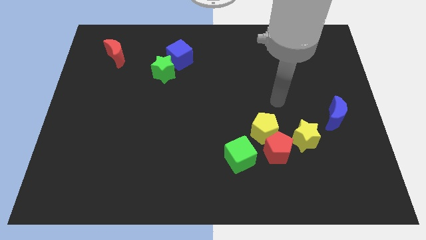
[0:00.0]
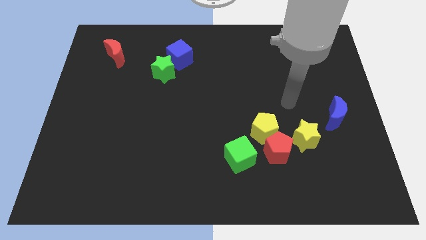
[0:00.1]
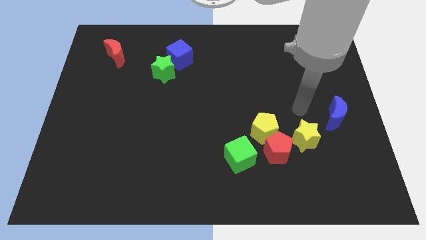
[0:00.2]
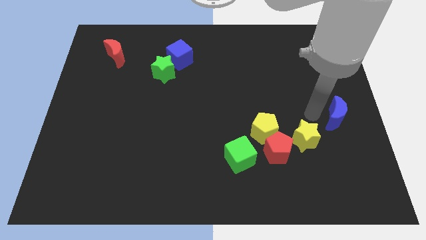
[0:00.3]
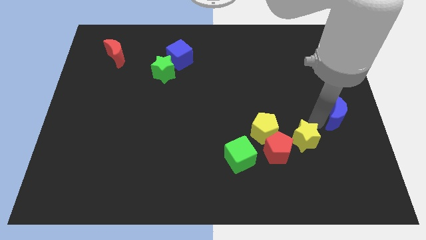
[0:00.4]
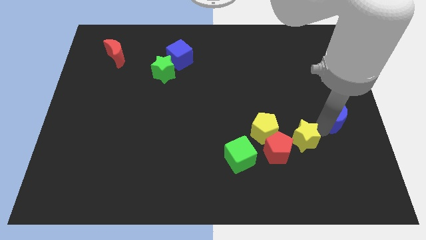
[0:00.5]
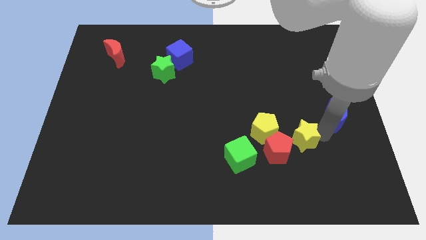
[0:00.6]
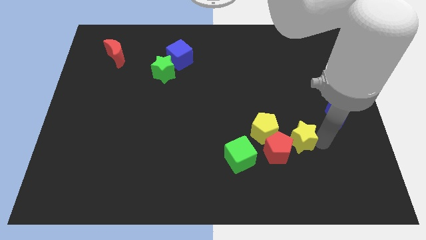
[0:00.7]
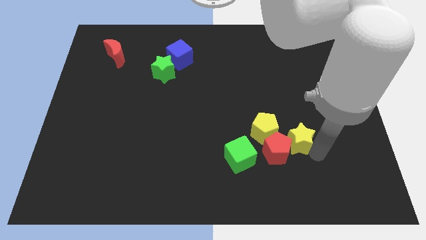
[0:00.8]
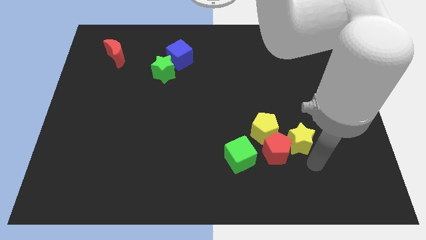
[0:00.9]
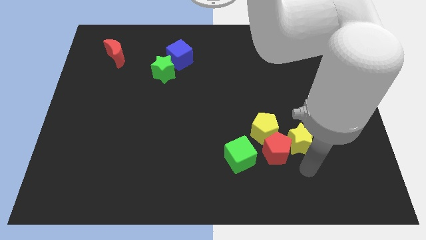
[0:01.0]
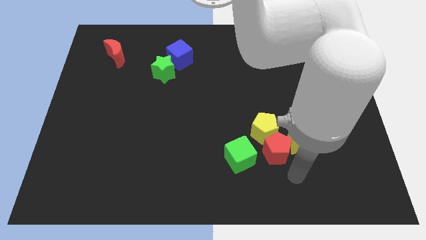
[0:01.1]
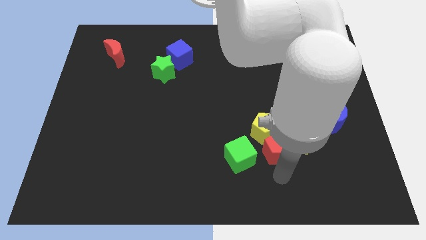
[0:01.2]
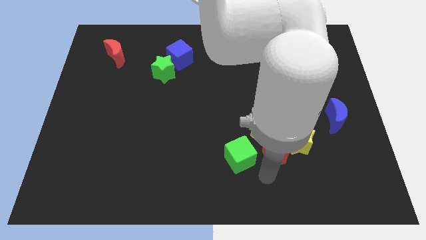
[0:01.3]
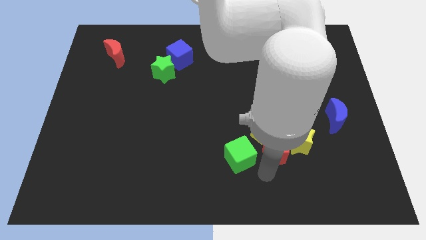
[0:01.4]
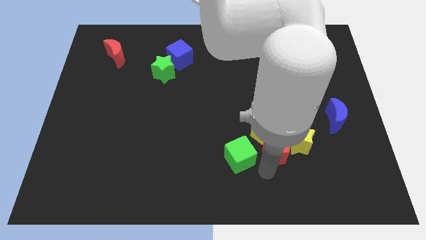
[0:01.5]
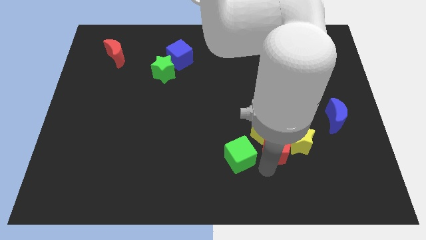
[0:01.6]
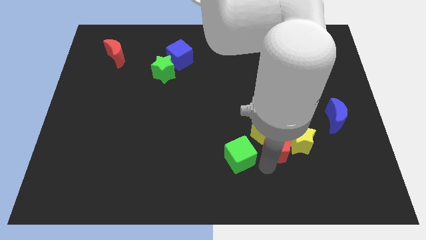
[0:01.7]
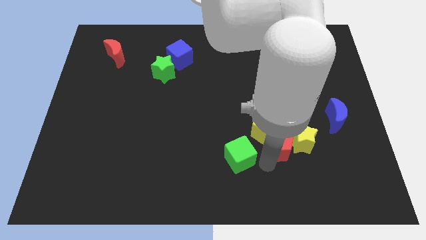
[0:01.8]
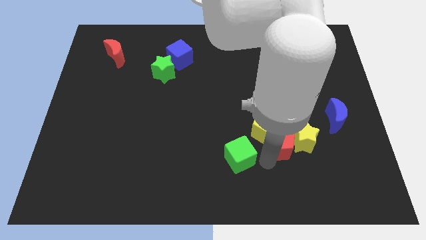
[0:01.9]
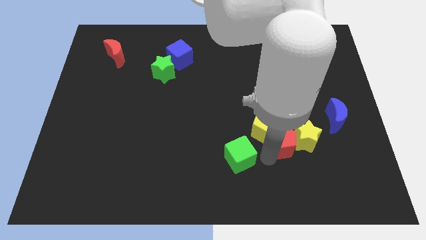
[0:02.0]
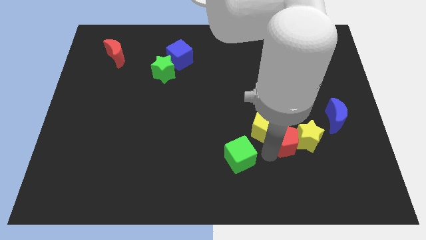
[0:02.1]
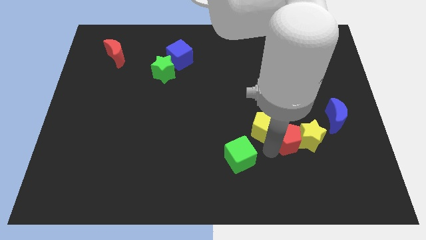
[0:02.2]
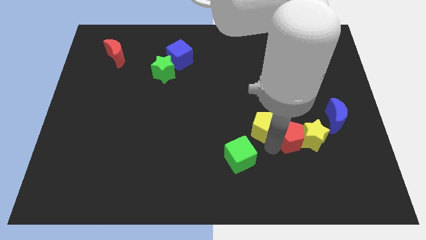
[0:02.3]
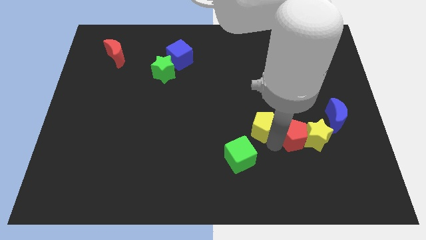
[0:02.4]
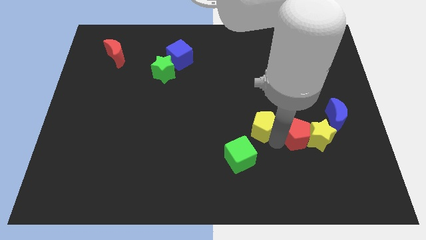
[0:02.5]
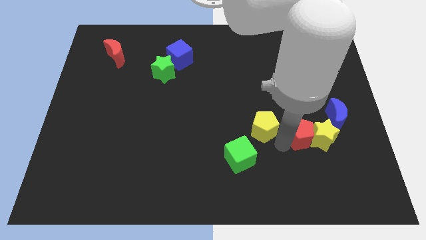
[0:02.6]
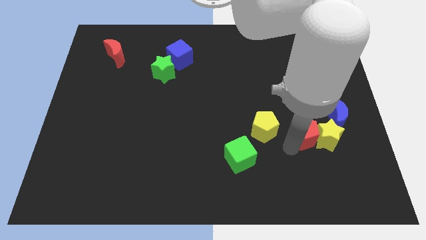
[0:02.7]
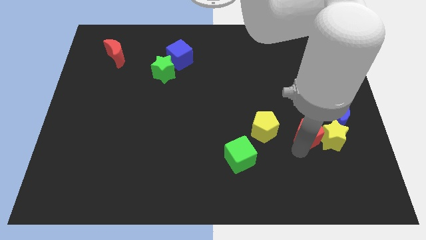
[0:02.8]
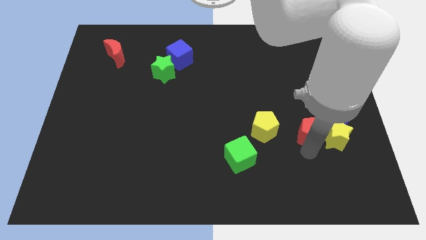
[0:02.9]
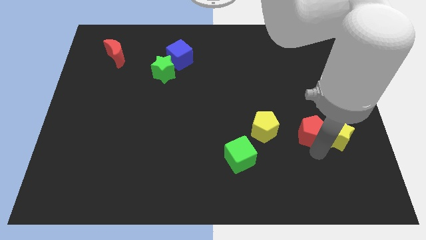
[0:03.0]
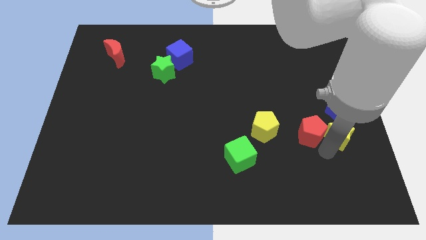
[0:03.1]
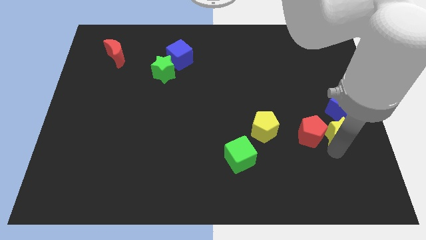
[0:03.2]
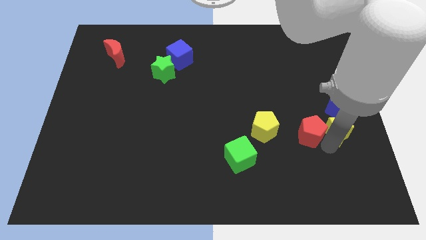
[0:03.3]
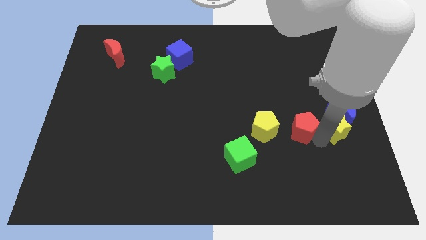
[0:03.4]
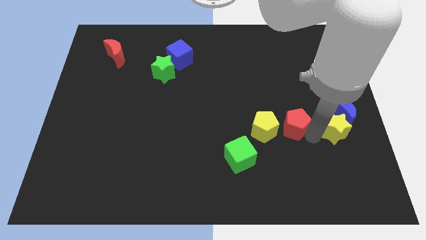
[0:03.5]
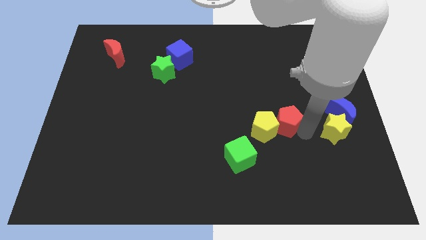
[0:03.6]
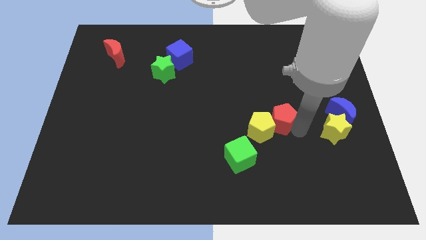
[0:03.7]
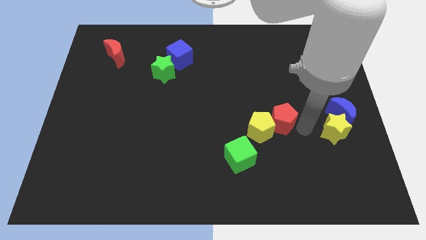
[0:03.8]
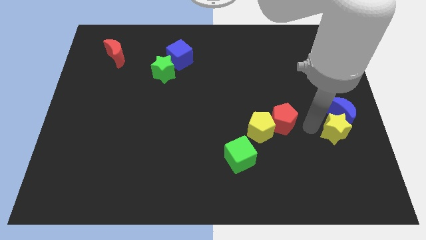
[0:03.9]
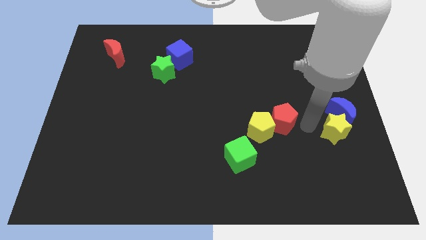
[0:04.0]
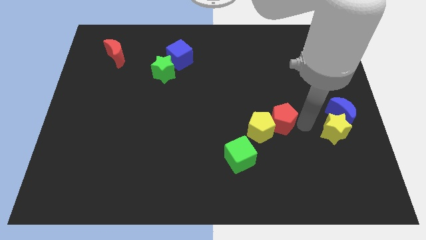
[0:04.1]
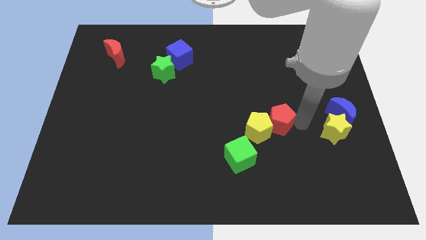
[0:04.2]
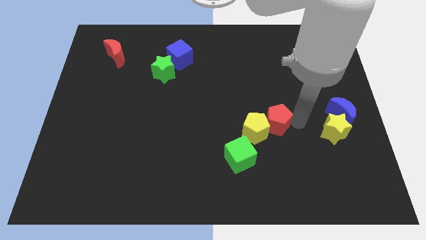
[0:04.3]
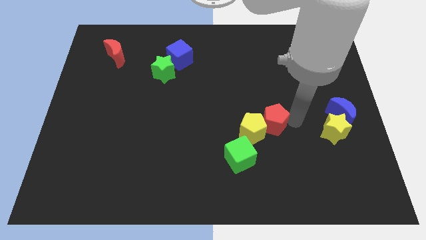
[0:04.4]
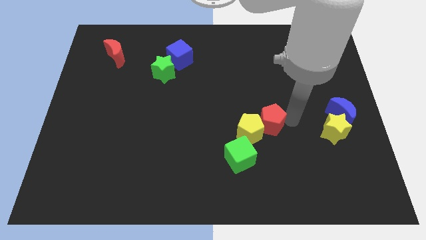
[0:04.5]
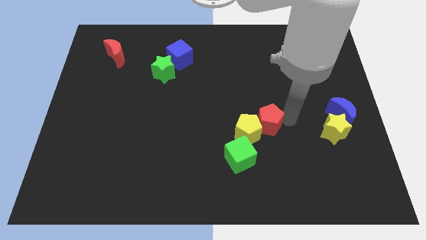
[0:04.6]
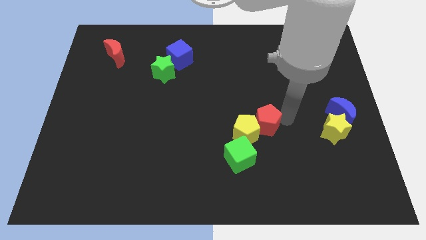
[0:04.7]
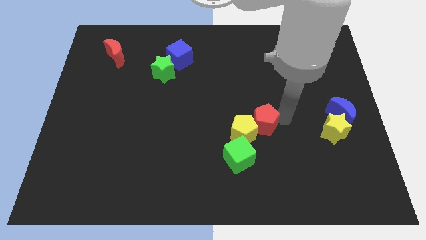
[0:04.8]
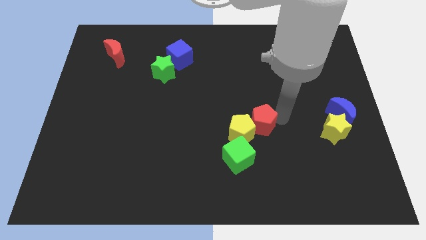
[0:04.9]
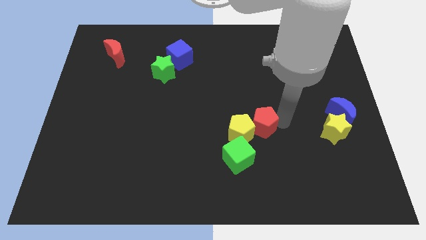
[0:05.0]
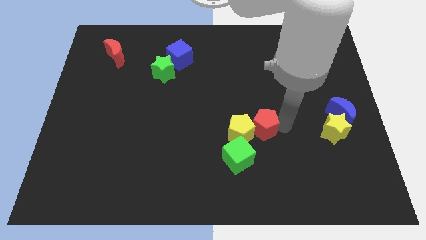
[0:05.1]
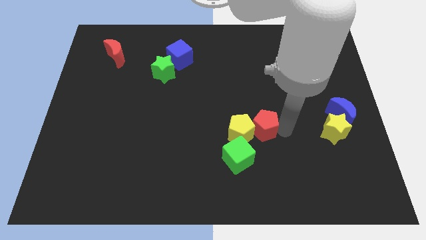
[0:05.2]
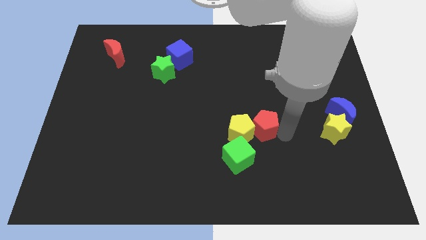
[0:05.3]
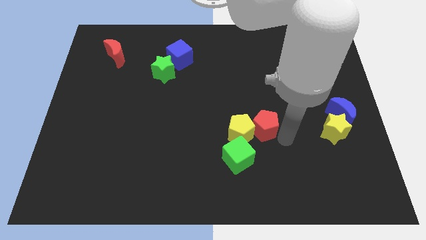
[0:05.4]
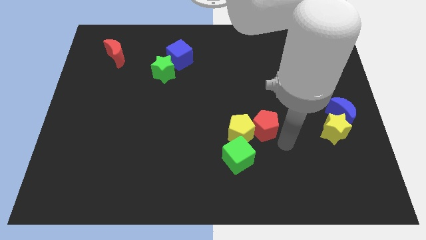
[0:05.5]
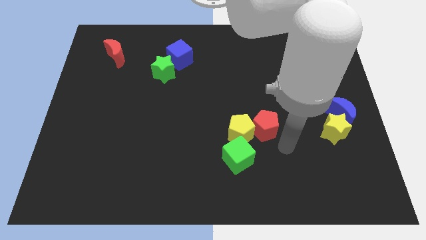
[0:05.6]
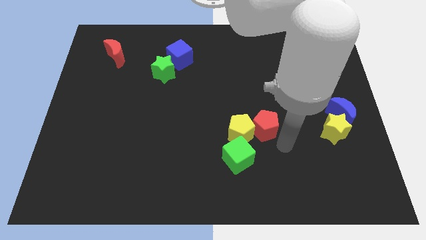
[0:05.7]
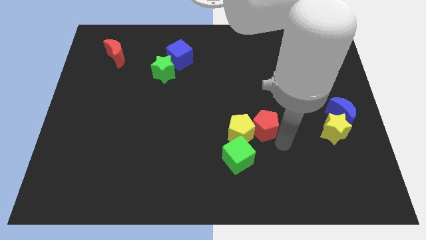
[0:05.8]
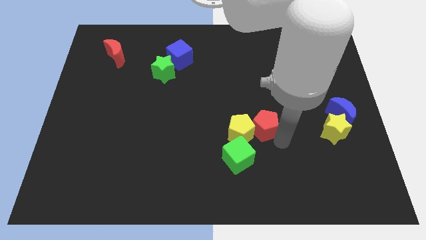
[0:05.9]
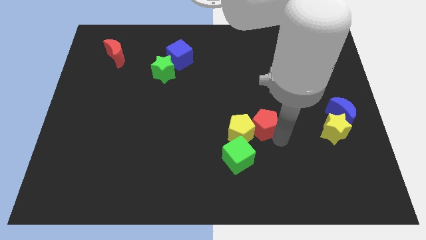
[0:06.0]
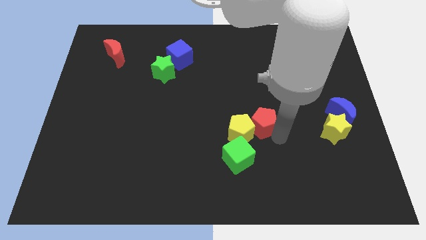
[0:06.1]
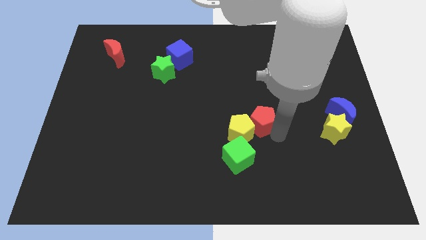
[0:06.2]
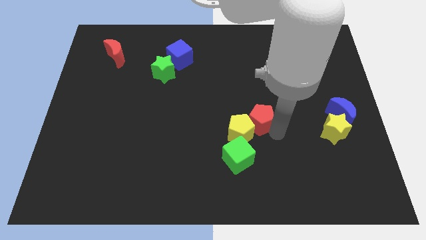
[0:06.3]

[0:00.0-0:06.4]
put the red pentagon to the center

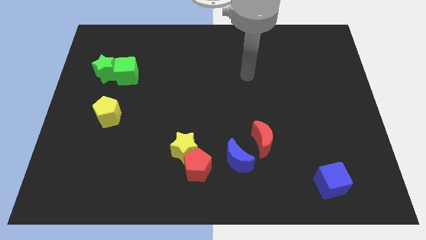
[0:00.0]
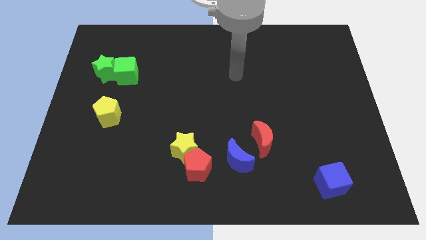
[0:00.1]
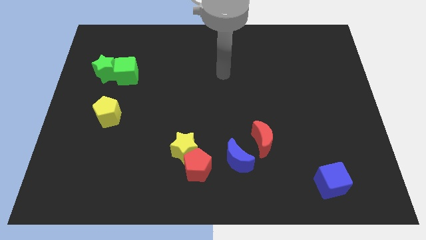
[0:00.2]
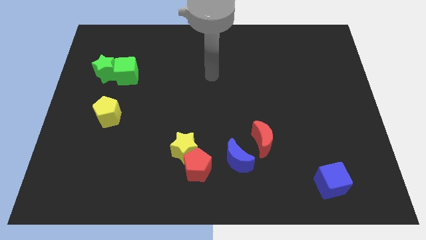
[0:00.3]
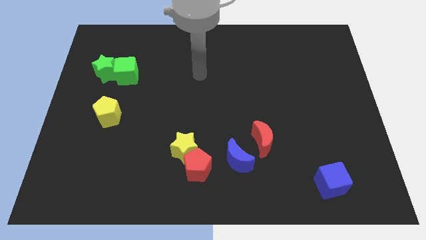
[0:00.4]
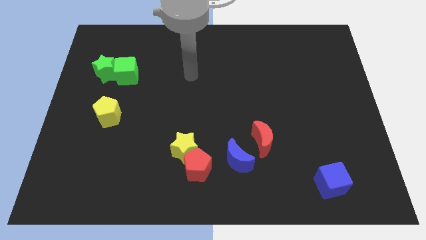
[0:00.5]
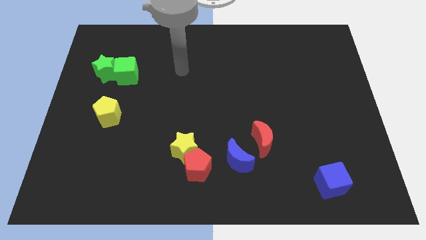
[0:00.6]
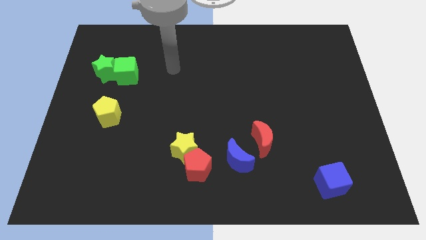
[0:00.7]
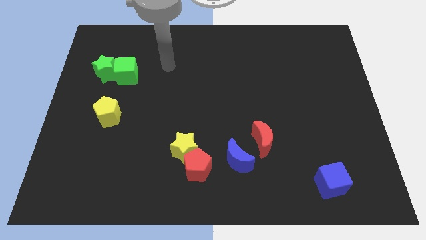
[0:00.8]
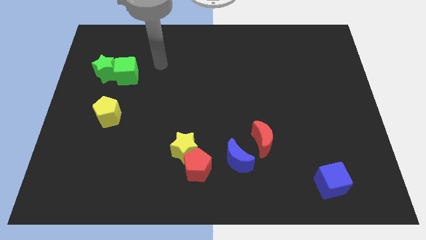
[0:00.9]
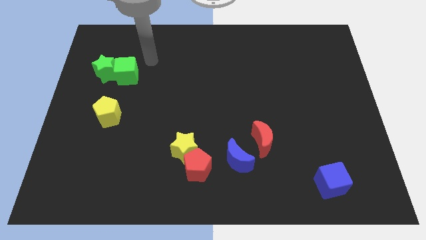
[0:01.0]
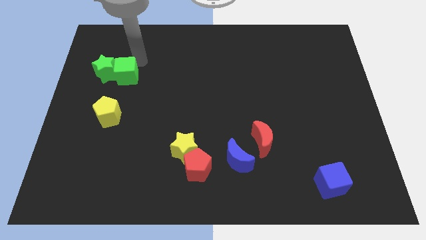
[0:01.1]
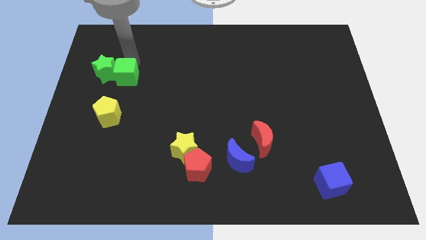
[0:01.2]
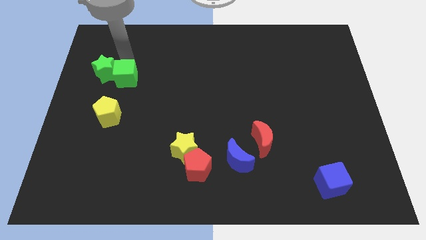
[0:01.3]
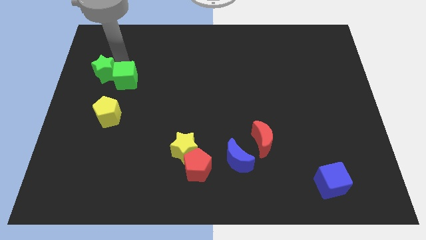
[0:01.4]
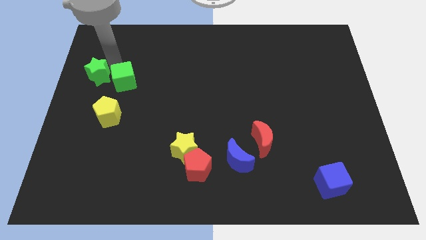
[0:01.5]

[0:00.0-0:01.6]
put the green star to the center left
